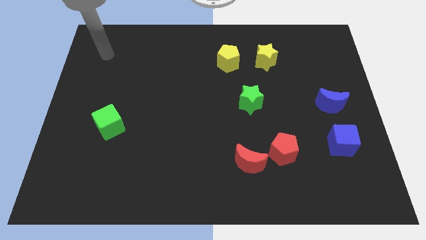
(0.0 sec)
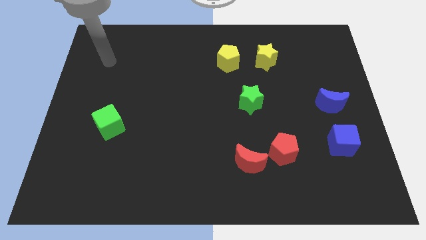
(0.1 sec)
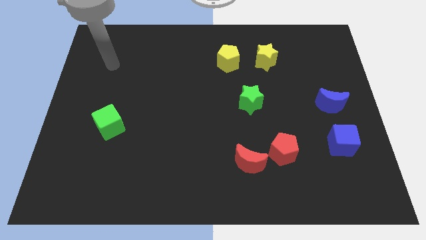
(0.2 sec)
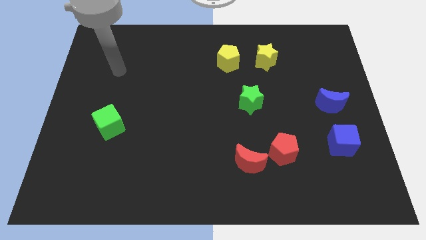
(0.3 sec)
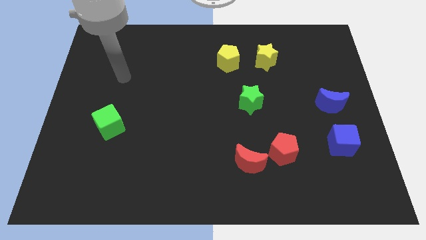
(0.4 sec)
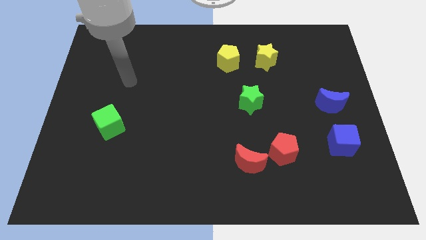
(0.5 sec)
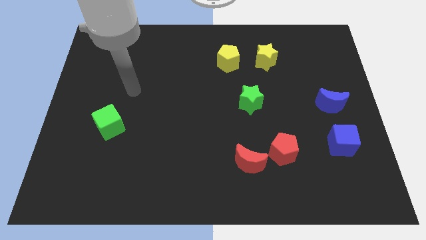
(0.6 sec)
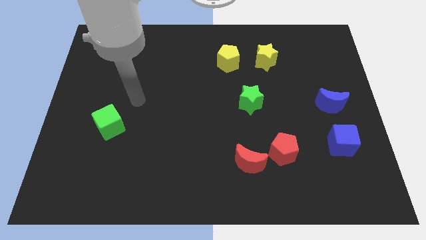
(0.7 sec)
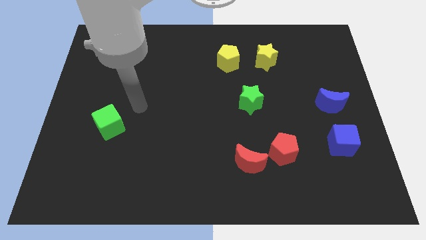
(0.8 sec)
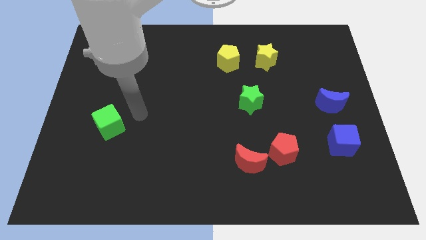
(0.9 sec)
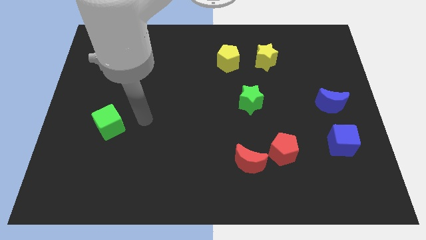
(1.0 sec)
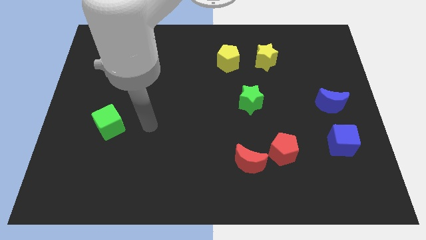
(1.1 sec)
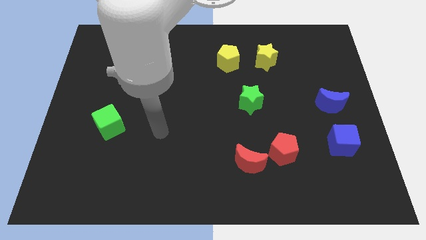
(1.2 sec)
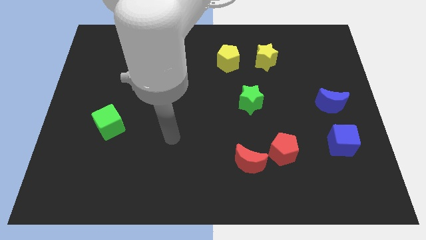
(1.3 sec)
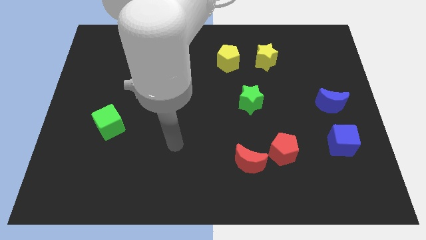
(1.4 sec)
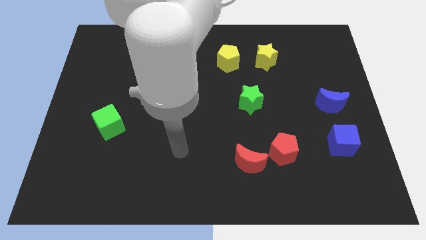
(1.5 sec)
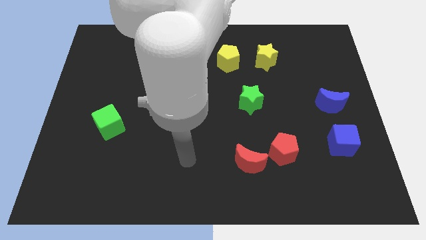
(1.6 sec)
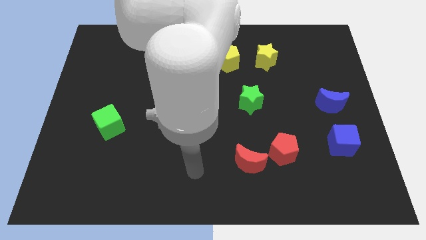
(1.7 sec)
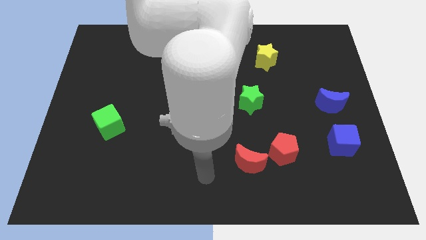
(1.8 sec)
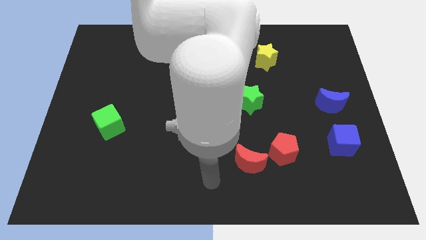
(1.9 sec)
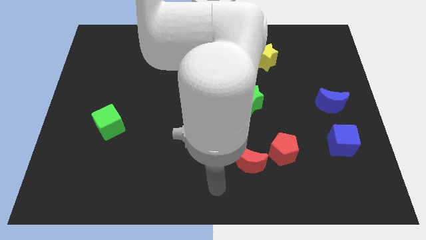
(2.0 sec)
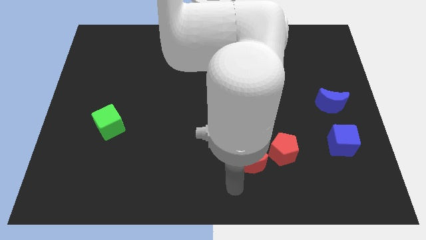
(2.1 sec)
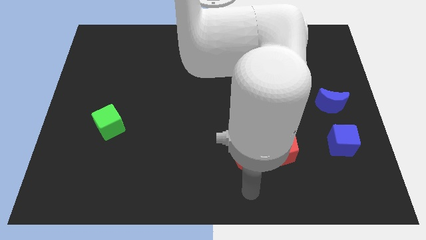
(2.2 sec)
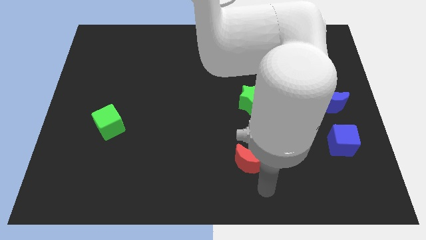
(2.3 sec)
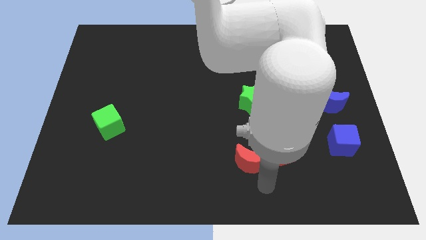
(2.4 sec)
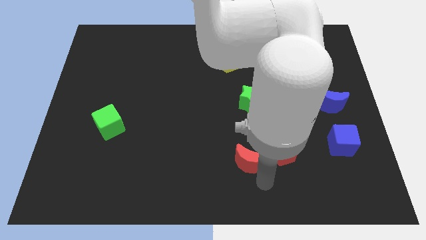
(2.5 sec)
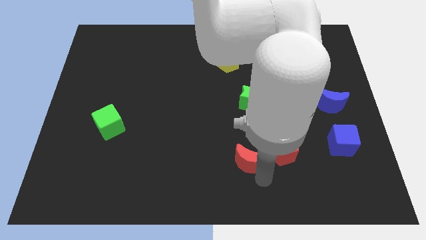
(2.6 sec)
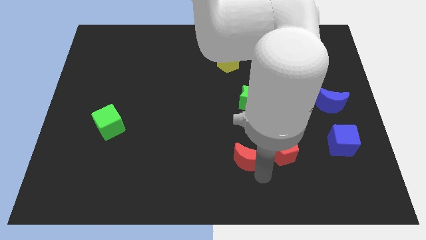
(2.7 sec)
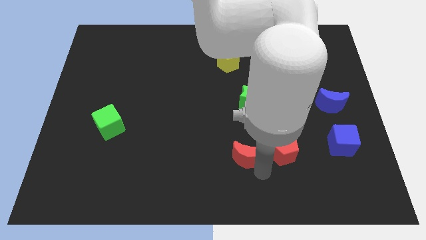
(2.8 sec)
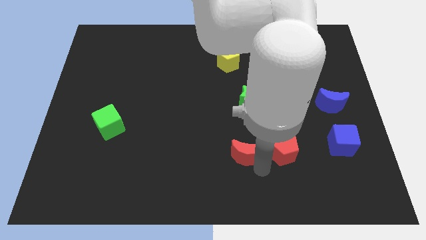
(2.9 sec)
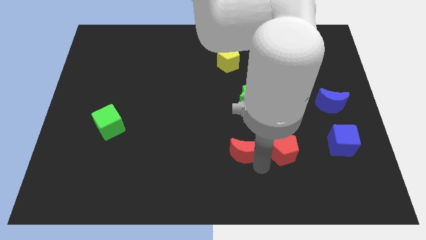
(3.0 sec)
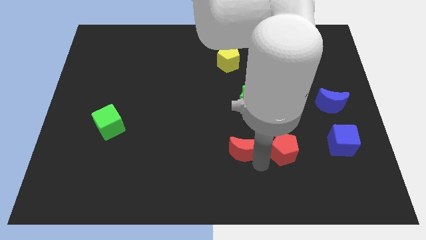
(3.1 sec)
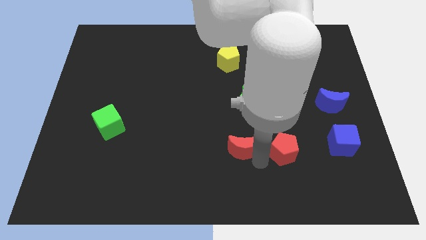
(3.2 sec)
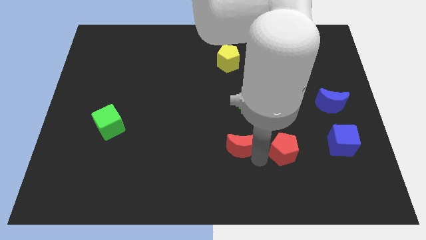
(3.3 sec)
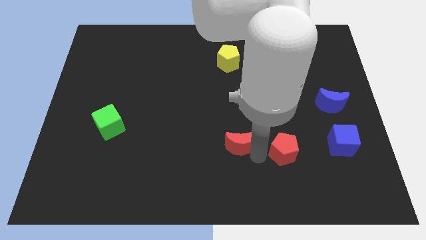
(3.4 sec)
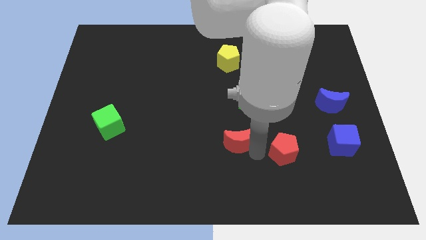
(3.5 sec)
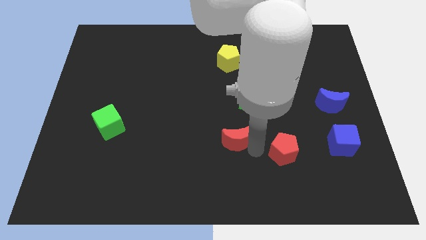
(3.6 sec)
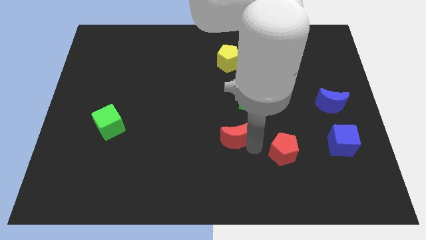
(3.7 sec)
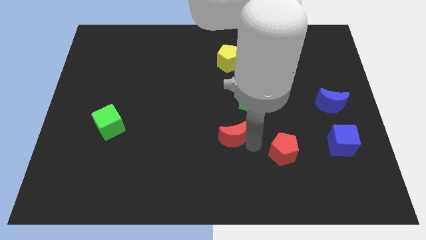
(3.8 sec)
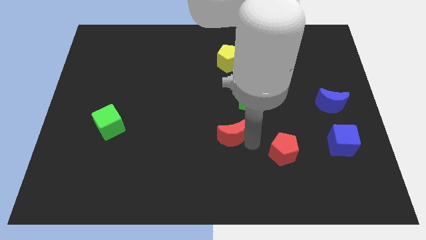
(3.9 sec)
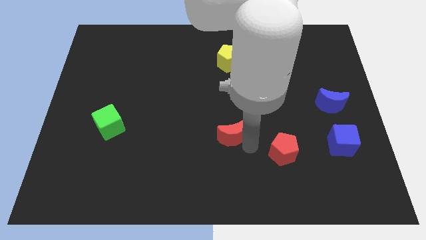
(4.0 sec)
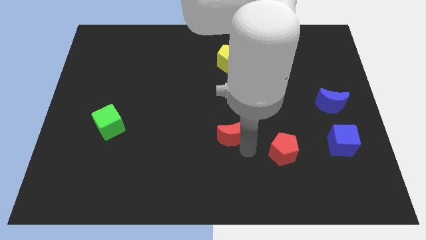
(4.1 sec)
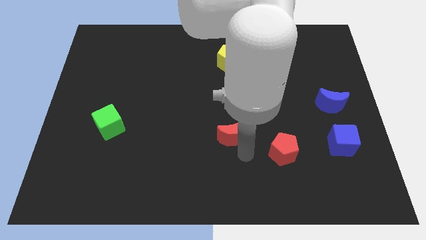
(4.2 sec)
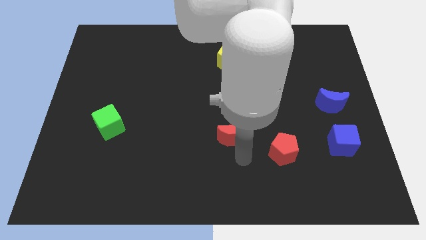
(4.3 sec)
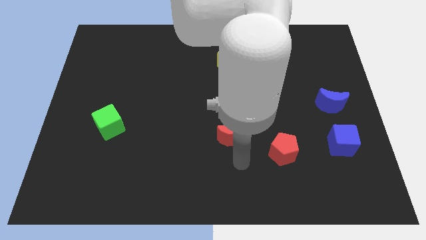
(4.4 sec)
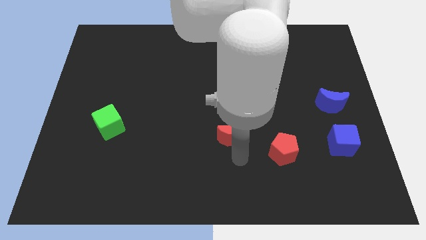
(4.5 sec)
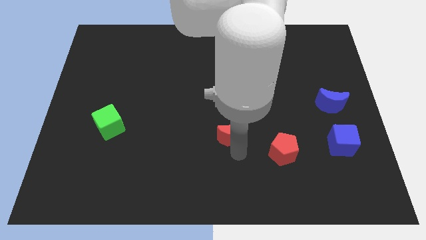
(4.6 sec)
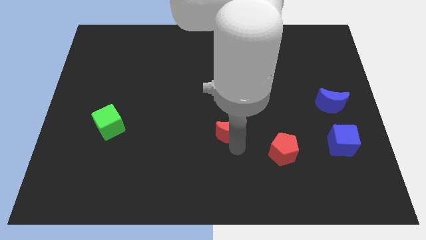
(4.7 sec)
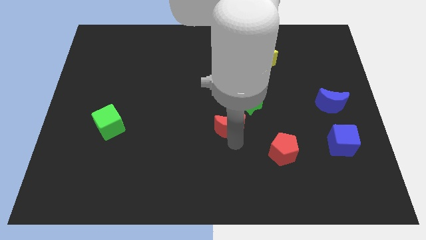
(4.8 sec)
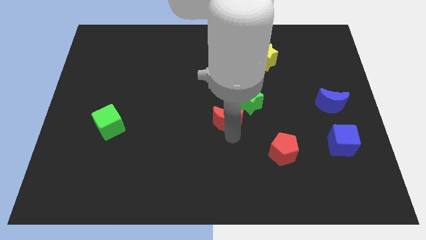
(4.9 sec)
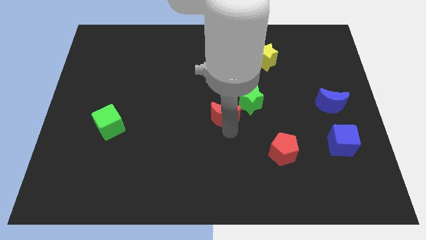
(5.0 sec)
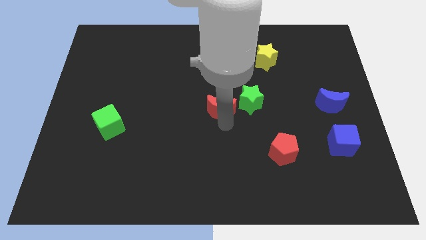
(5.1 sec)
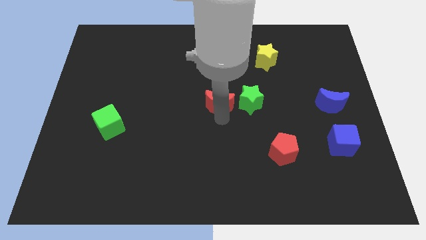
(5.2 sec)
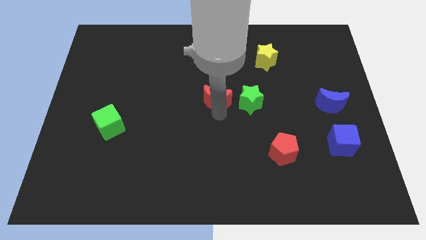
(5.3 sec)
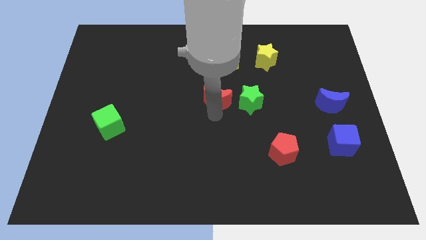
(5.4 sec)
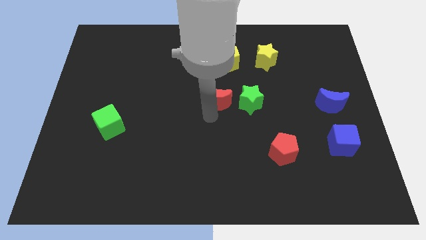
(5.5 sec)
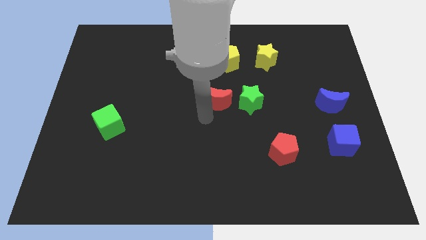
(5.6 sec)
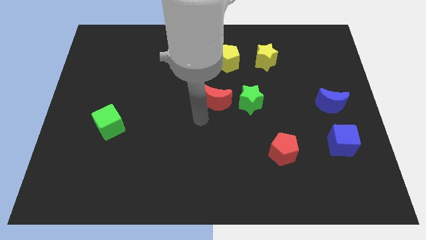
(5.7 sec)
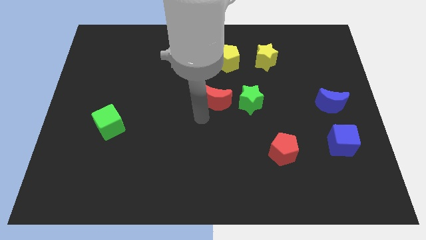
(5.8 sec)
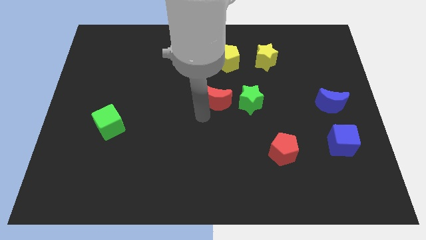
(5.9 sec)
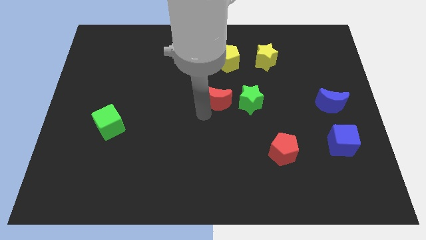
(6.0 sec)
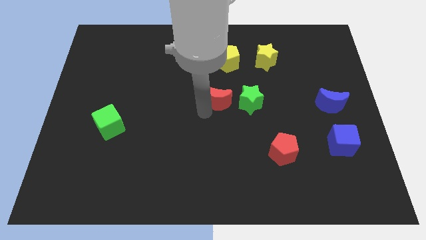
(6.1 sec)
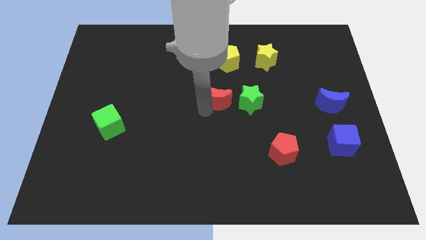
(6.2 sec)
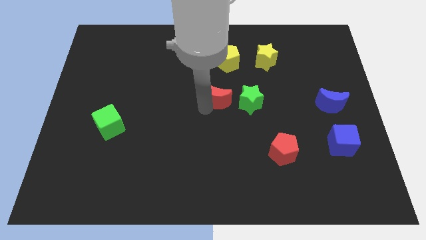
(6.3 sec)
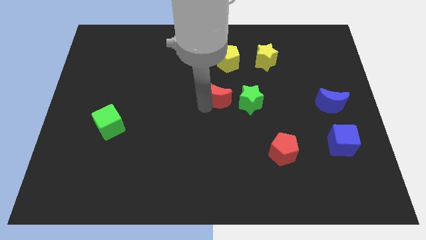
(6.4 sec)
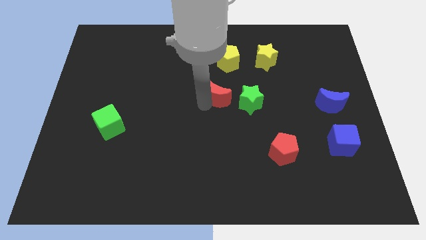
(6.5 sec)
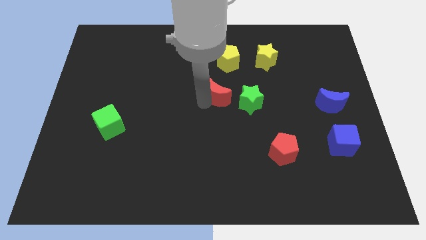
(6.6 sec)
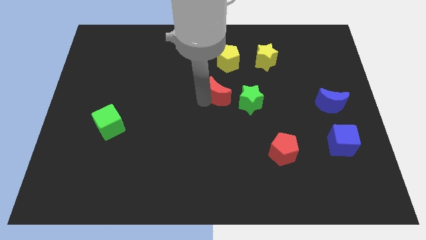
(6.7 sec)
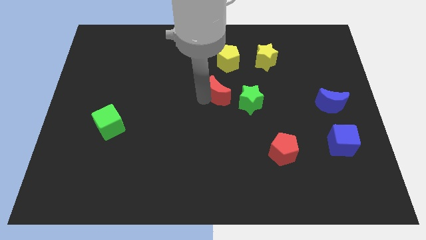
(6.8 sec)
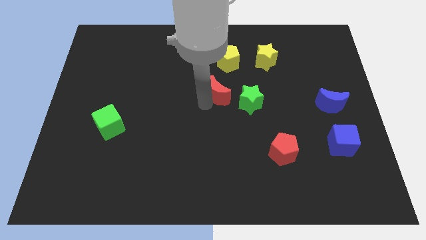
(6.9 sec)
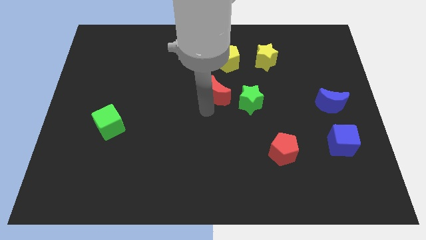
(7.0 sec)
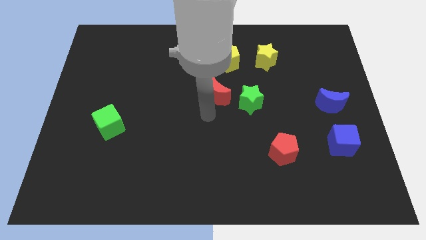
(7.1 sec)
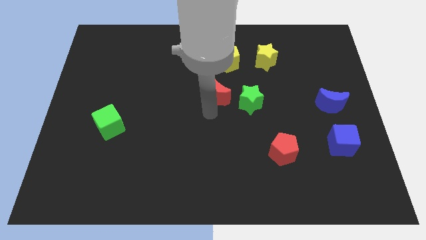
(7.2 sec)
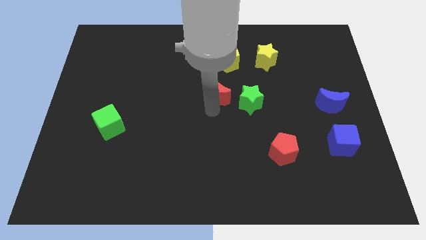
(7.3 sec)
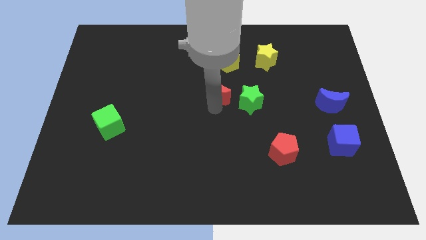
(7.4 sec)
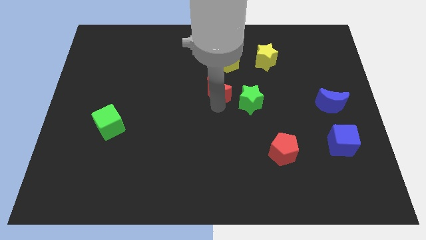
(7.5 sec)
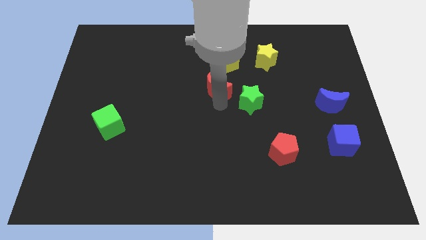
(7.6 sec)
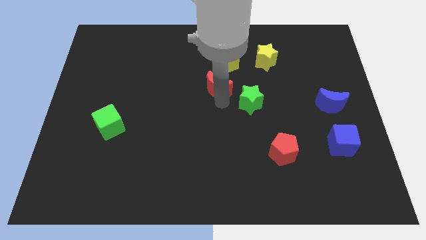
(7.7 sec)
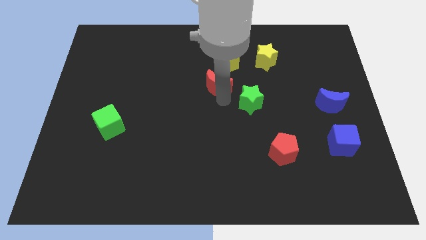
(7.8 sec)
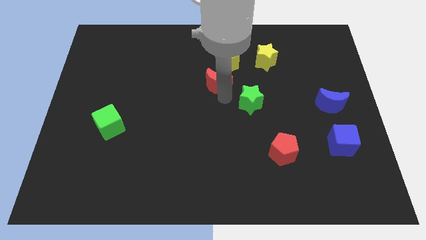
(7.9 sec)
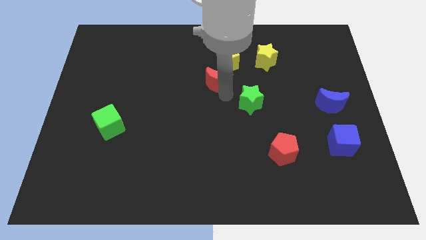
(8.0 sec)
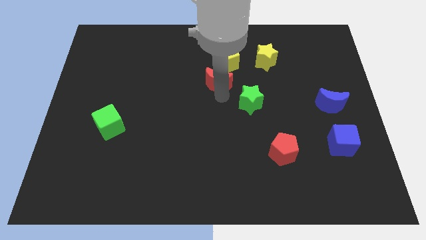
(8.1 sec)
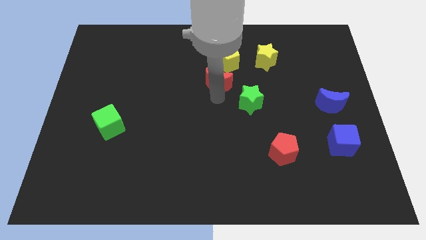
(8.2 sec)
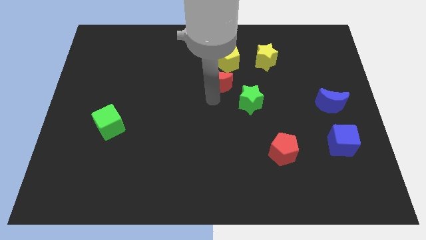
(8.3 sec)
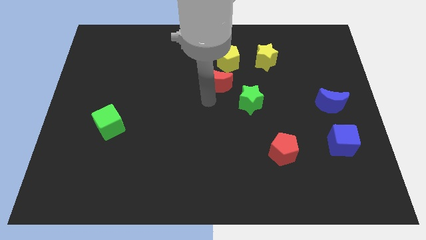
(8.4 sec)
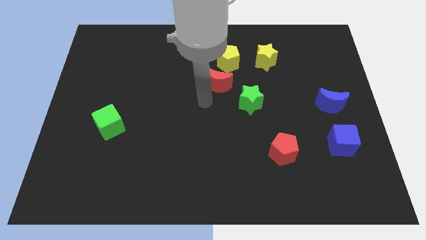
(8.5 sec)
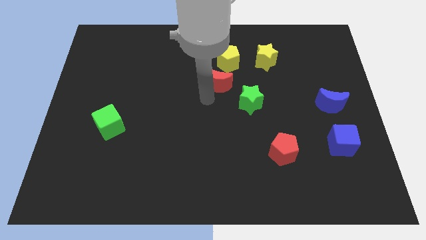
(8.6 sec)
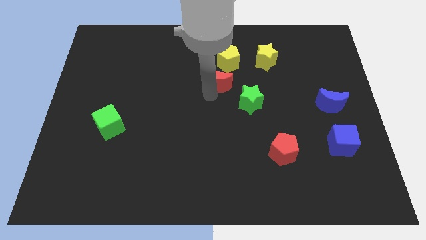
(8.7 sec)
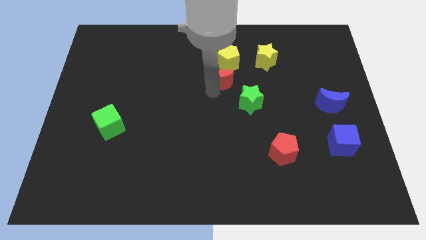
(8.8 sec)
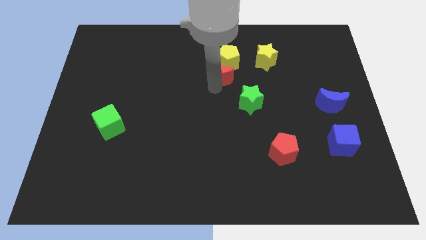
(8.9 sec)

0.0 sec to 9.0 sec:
put the red moon towards the yellow pentagon
